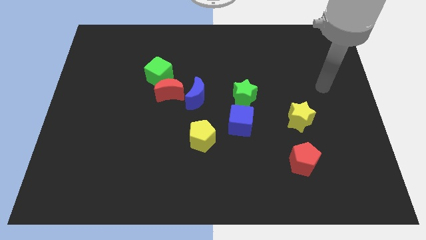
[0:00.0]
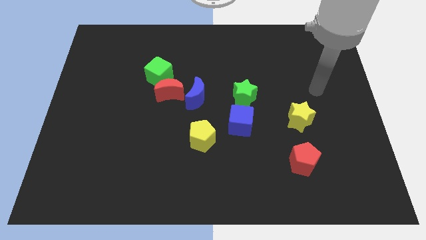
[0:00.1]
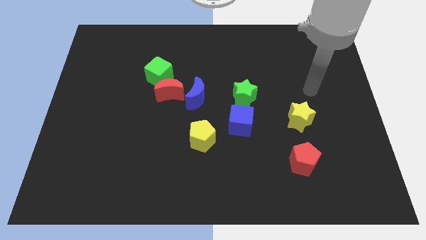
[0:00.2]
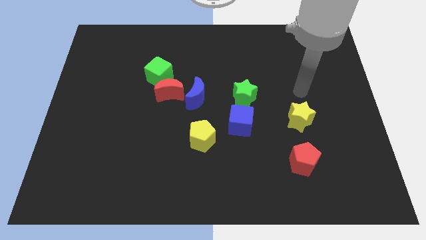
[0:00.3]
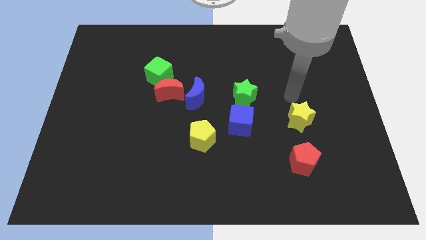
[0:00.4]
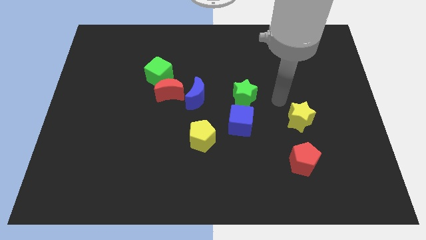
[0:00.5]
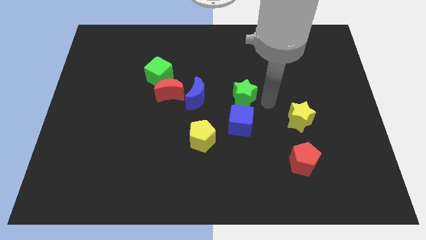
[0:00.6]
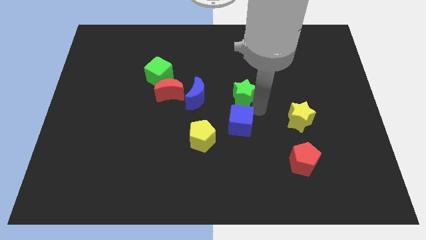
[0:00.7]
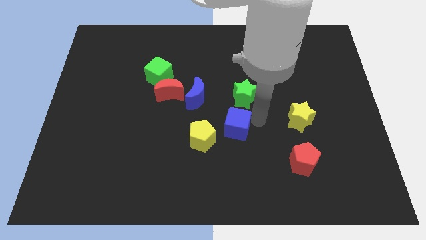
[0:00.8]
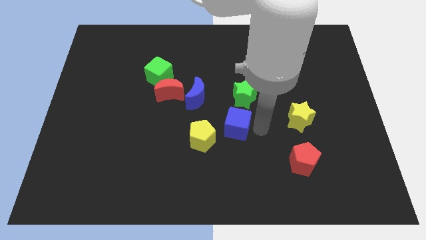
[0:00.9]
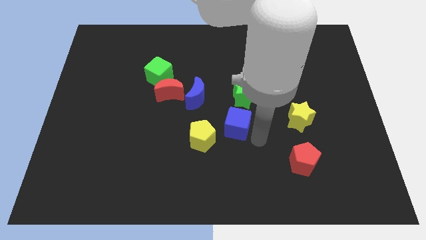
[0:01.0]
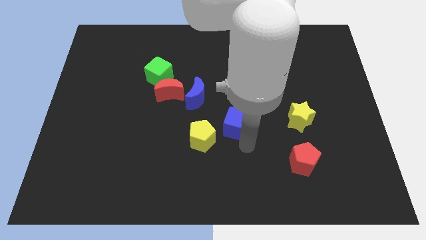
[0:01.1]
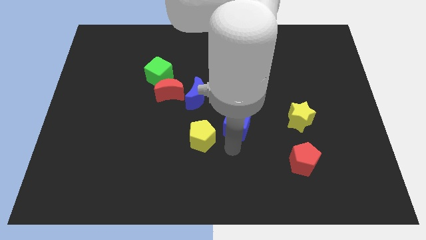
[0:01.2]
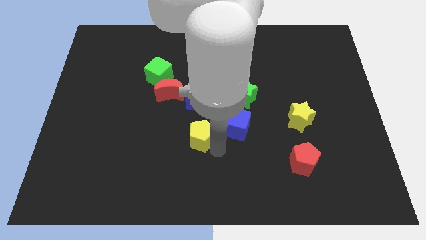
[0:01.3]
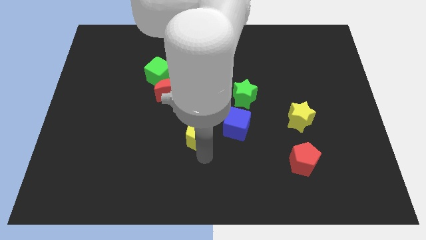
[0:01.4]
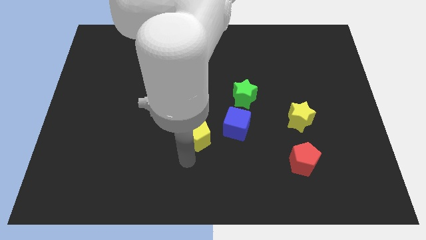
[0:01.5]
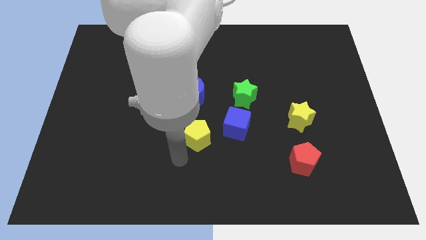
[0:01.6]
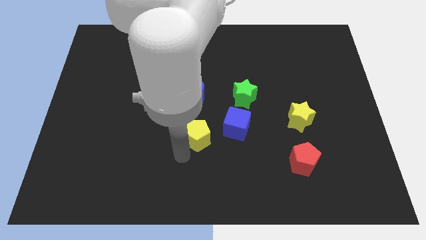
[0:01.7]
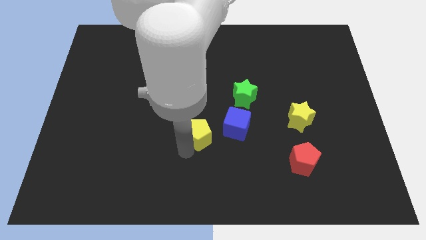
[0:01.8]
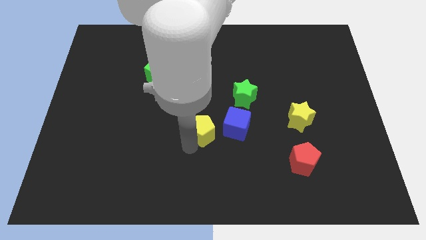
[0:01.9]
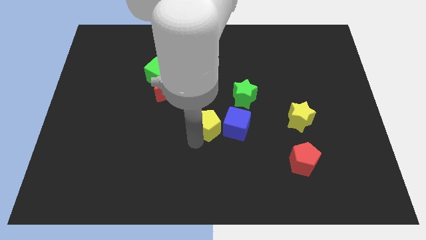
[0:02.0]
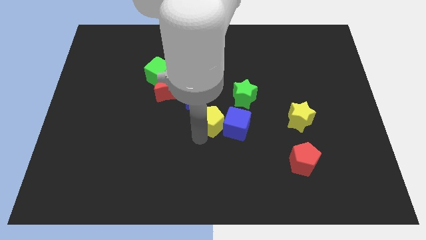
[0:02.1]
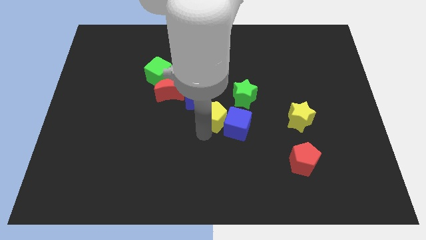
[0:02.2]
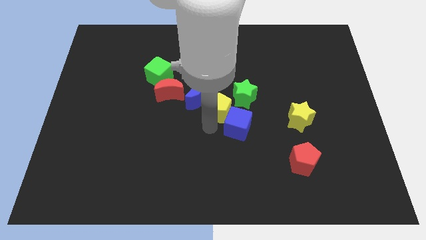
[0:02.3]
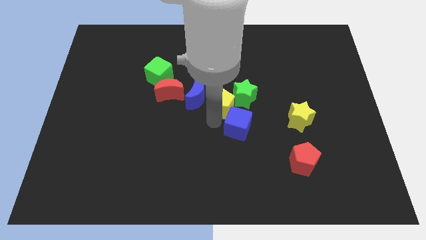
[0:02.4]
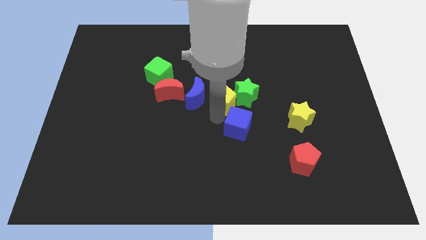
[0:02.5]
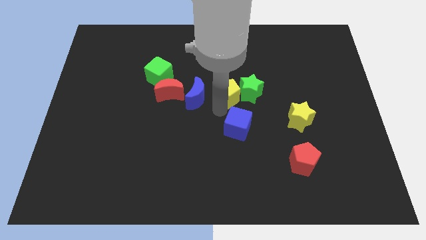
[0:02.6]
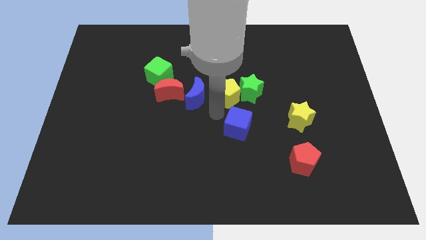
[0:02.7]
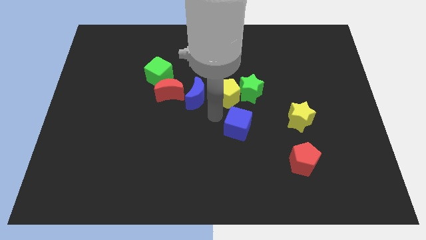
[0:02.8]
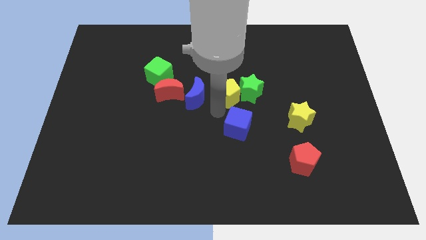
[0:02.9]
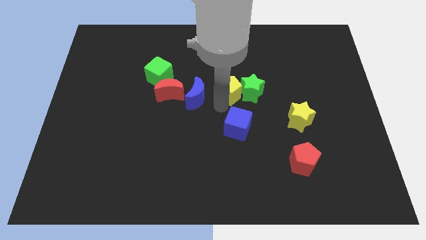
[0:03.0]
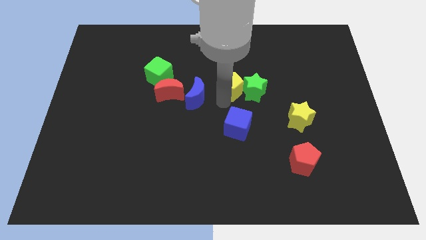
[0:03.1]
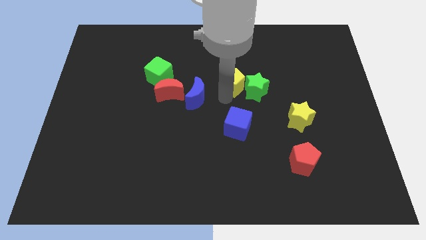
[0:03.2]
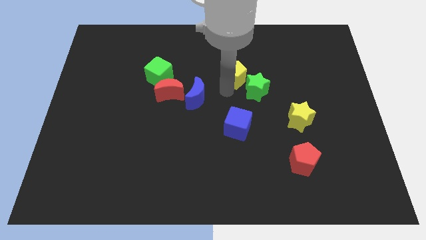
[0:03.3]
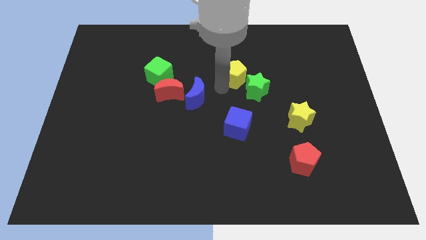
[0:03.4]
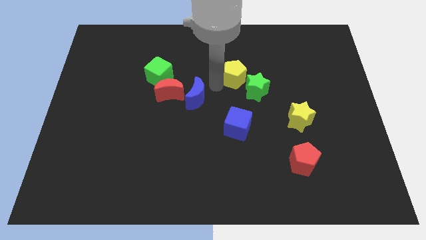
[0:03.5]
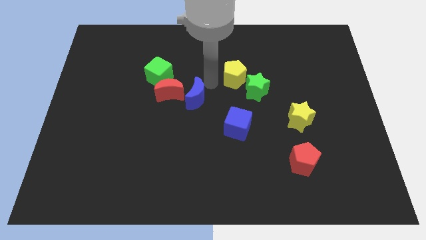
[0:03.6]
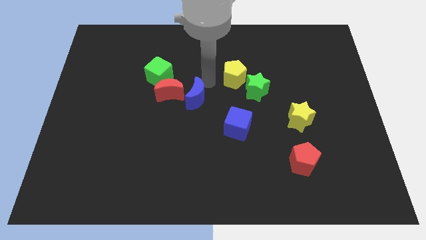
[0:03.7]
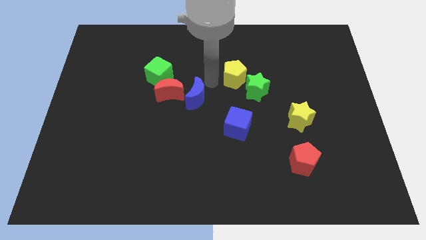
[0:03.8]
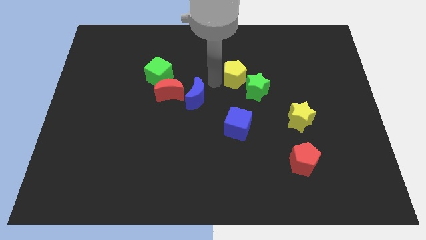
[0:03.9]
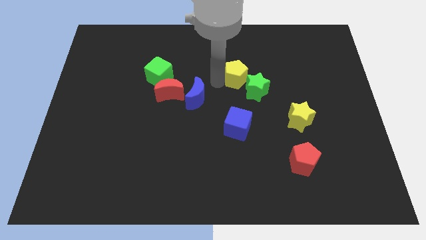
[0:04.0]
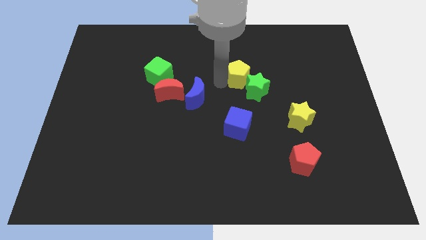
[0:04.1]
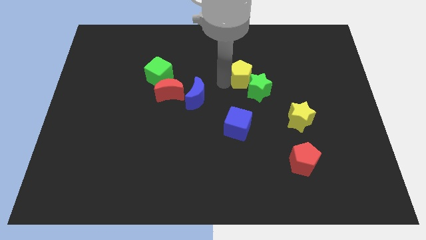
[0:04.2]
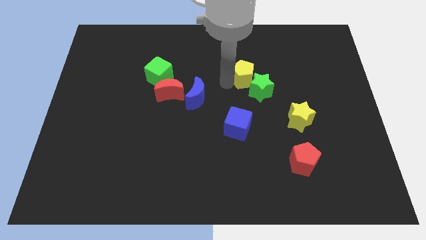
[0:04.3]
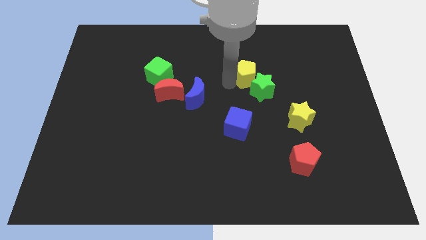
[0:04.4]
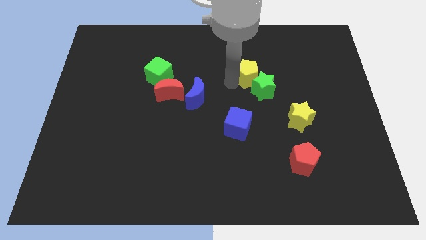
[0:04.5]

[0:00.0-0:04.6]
move the yellow pentagon upwards and then to the right

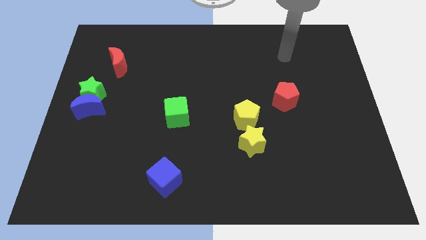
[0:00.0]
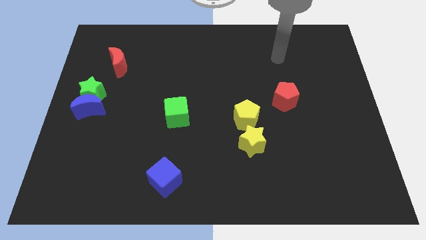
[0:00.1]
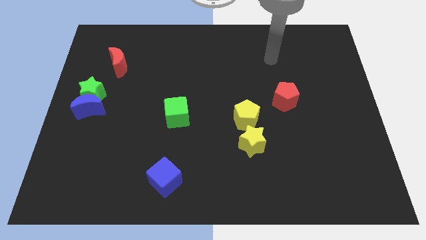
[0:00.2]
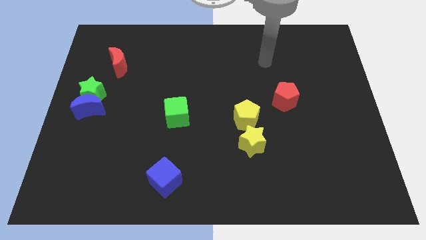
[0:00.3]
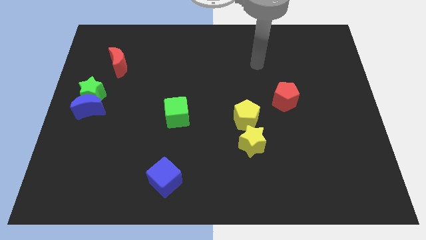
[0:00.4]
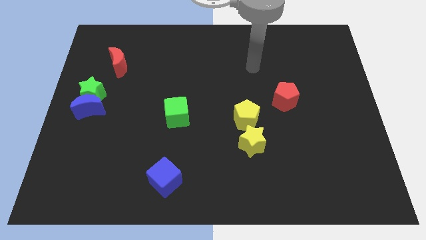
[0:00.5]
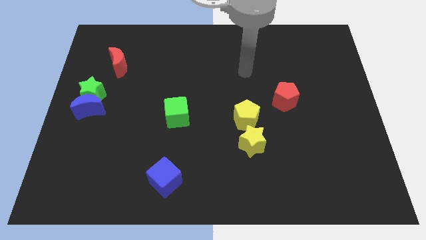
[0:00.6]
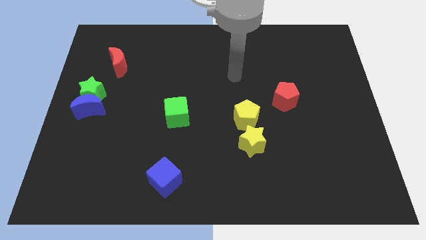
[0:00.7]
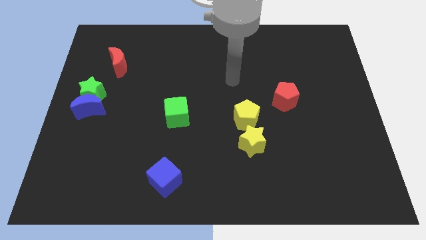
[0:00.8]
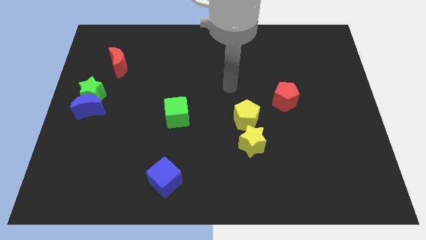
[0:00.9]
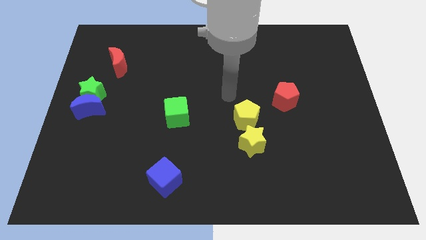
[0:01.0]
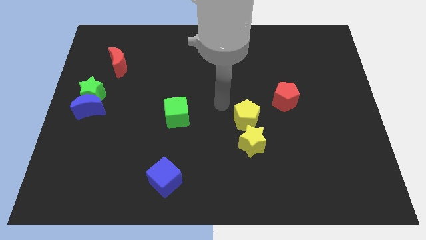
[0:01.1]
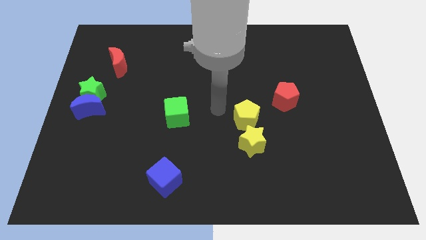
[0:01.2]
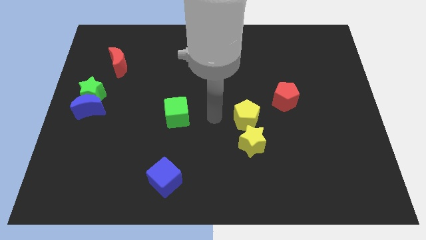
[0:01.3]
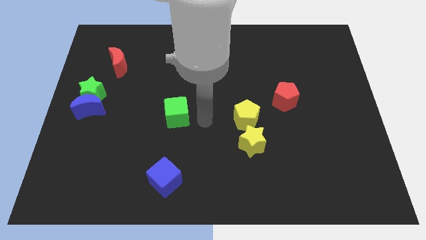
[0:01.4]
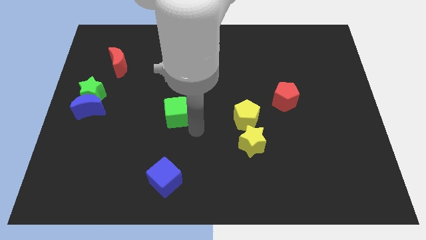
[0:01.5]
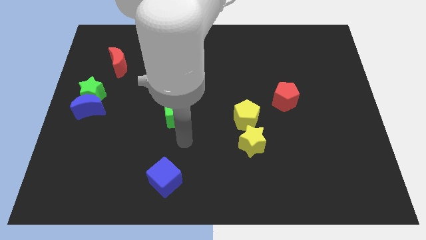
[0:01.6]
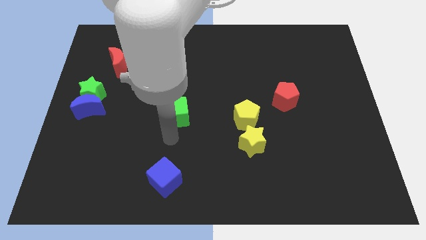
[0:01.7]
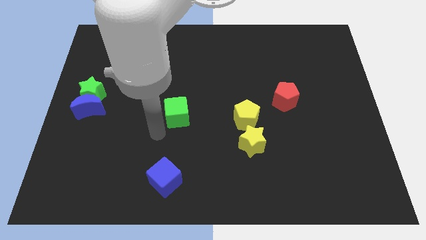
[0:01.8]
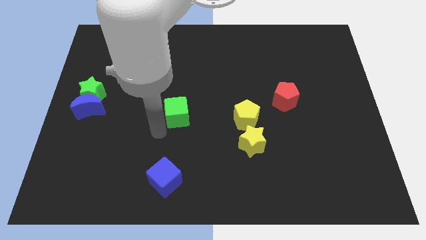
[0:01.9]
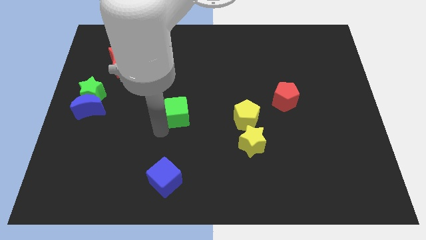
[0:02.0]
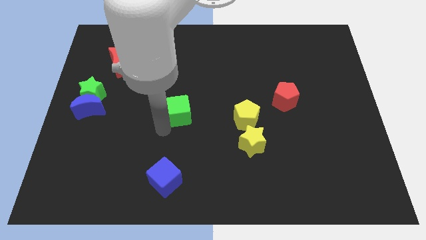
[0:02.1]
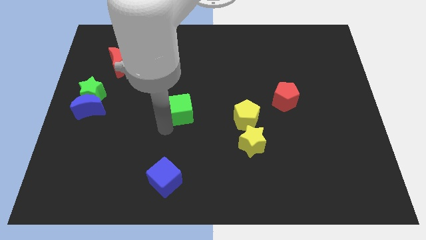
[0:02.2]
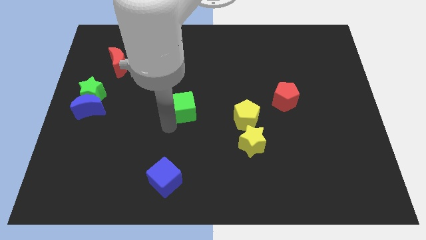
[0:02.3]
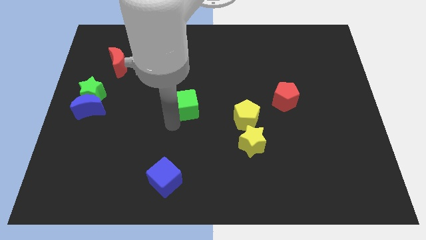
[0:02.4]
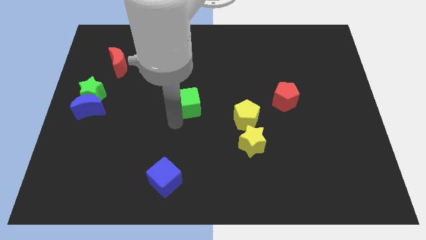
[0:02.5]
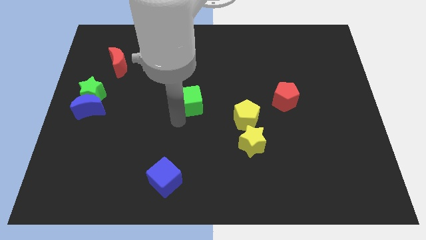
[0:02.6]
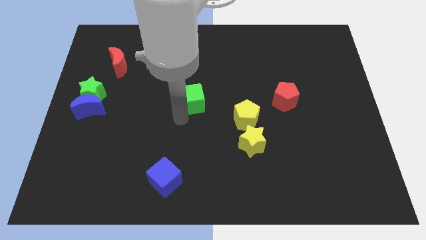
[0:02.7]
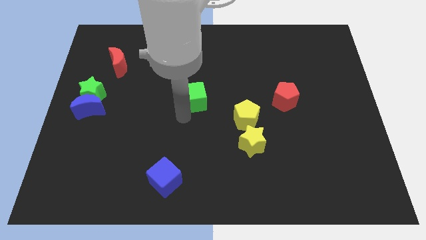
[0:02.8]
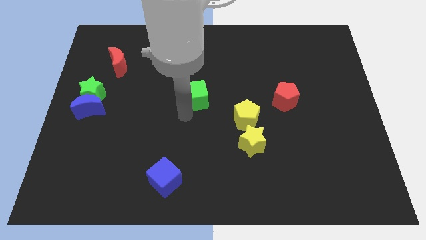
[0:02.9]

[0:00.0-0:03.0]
slightly push the green cube up and right

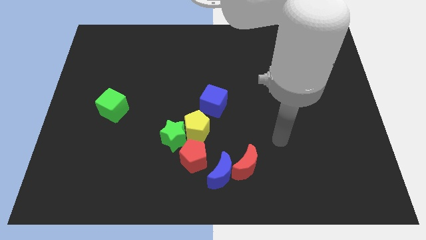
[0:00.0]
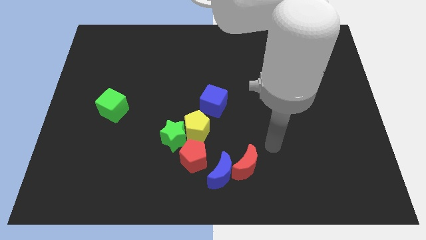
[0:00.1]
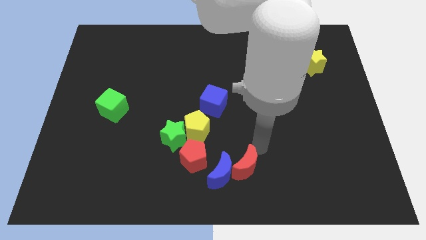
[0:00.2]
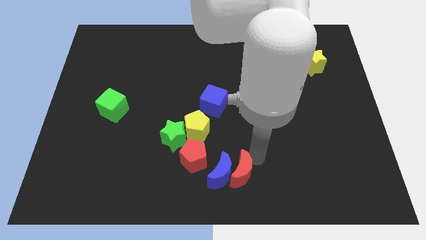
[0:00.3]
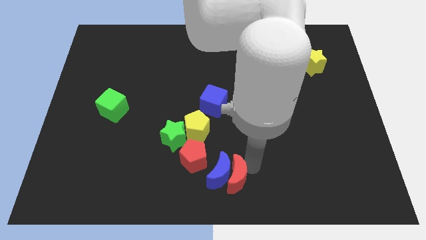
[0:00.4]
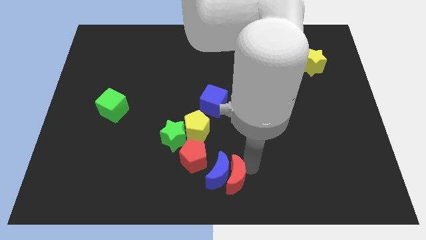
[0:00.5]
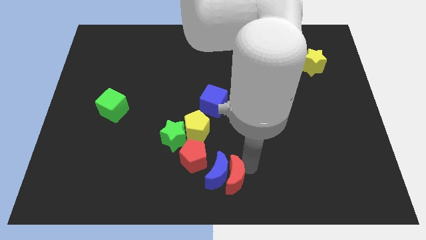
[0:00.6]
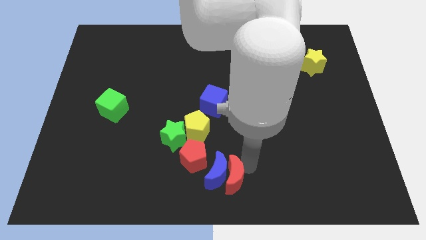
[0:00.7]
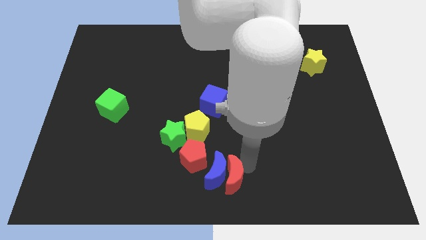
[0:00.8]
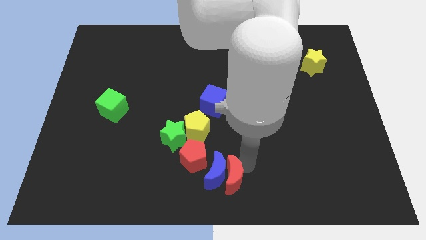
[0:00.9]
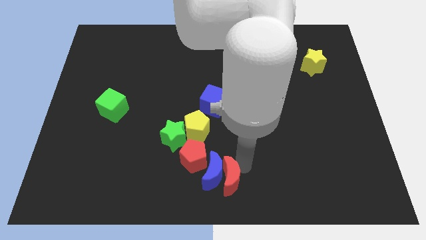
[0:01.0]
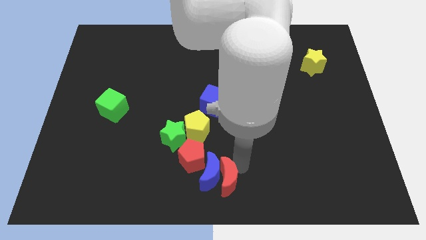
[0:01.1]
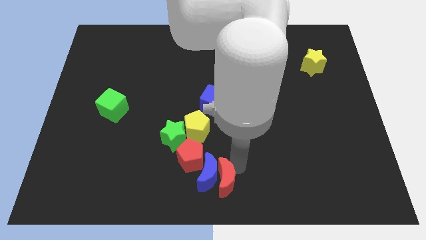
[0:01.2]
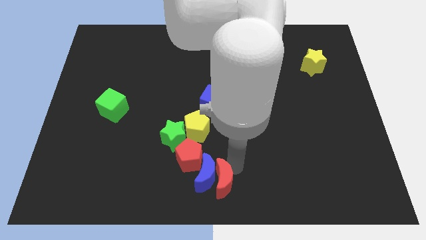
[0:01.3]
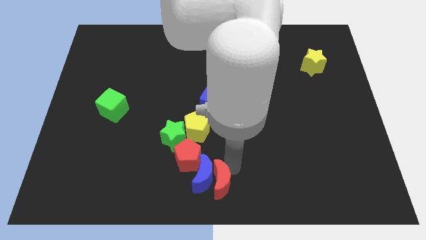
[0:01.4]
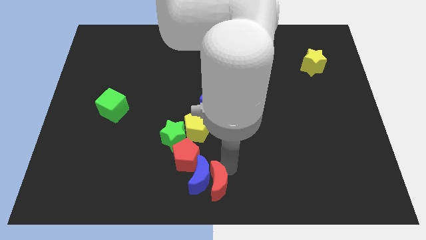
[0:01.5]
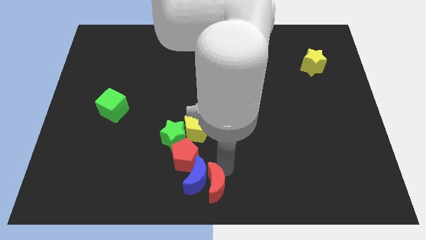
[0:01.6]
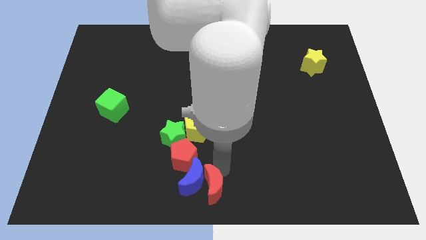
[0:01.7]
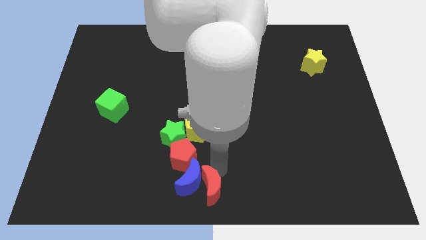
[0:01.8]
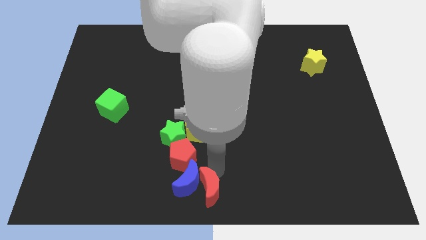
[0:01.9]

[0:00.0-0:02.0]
push the blue moon slightly to the left
